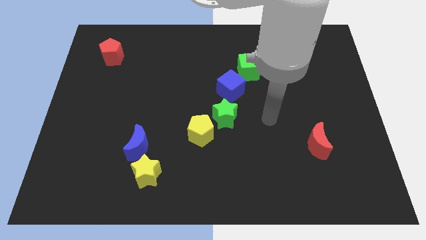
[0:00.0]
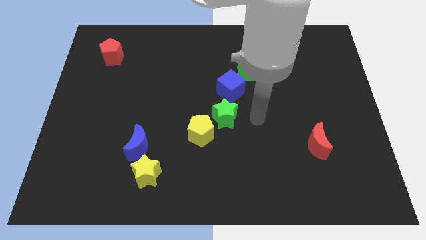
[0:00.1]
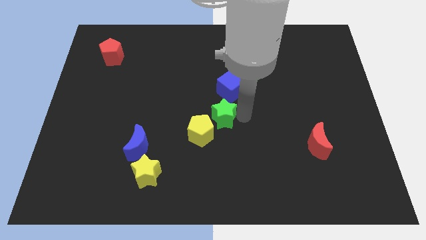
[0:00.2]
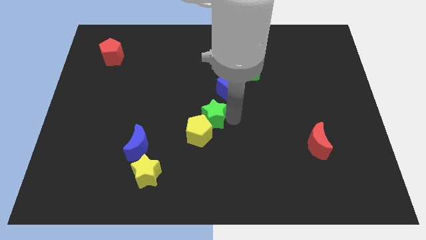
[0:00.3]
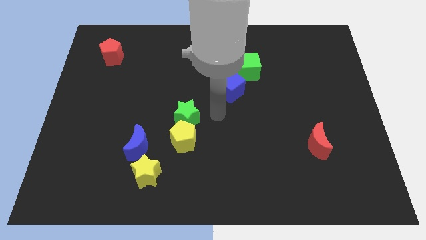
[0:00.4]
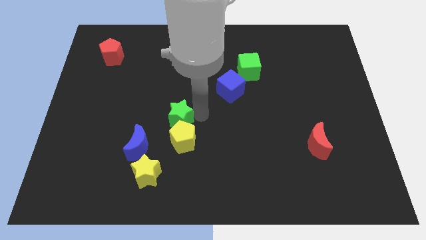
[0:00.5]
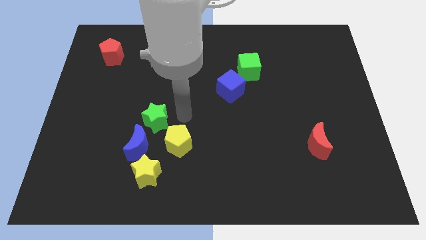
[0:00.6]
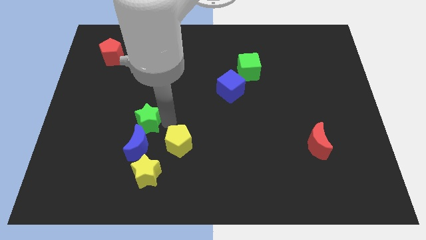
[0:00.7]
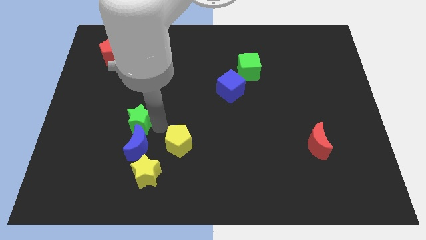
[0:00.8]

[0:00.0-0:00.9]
separate the yellow pentagon from the green star

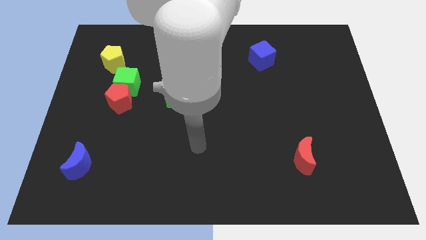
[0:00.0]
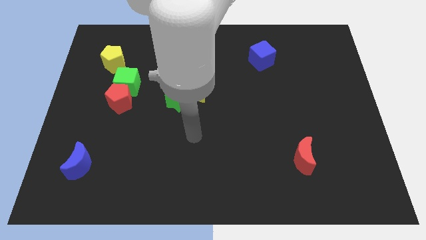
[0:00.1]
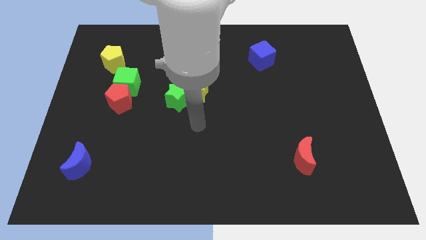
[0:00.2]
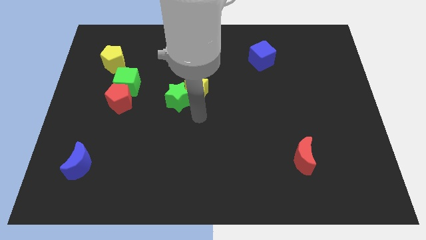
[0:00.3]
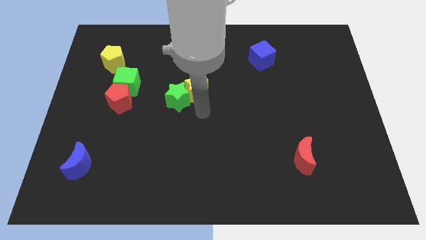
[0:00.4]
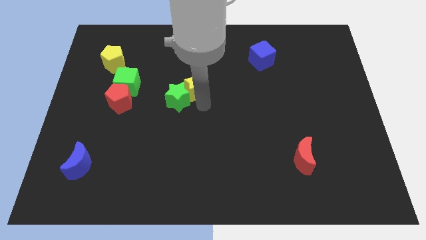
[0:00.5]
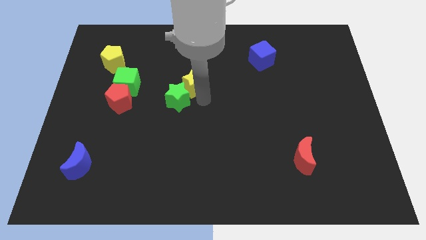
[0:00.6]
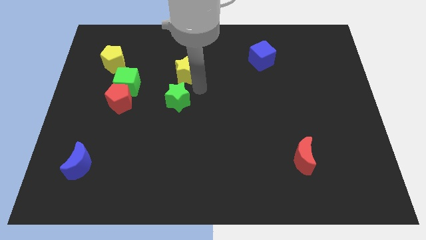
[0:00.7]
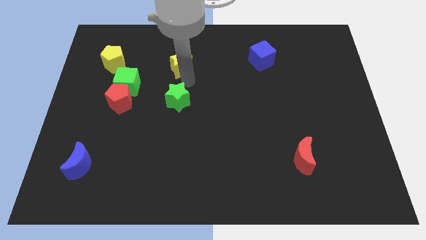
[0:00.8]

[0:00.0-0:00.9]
pull the green star apart from the yellow star

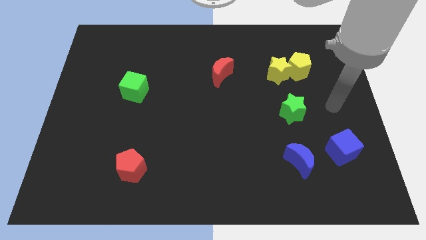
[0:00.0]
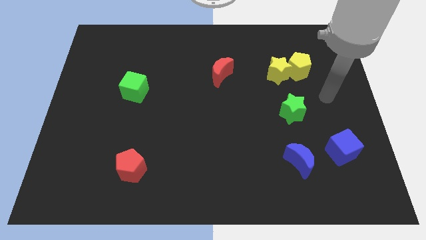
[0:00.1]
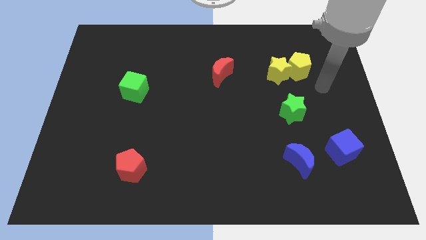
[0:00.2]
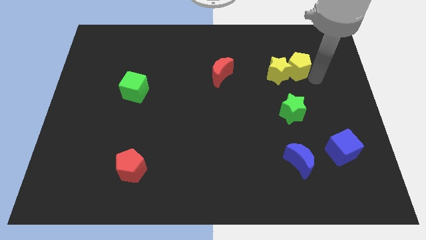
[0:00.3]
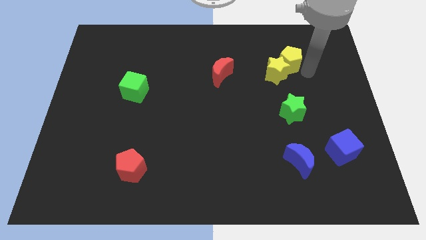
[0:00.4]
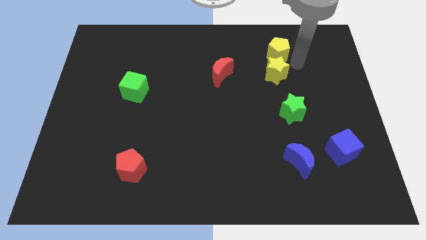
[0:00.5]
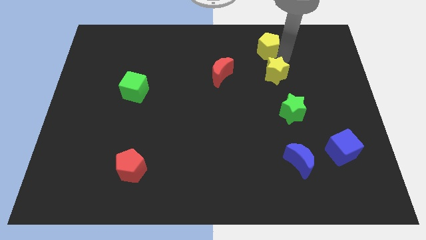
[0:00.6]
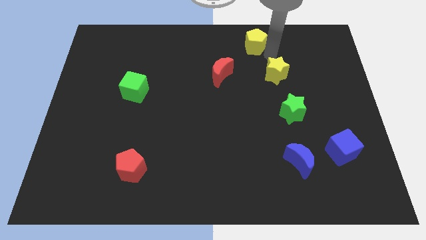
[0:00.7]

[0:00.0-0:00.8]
move the yellow star away from the yellow pentagon

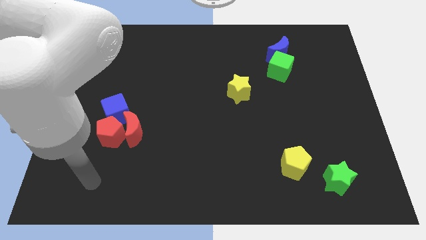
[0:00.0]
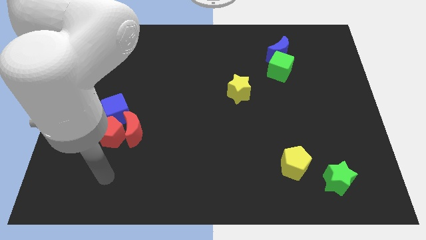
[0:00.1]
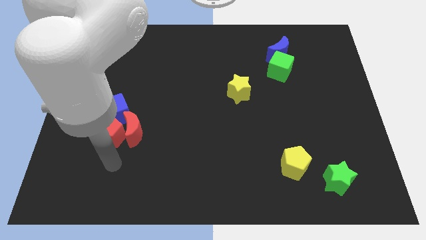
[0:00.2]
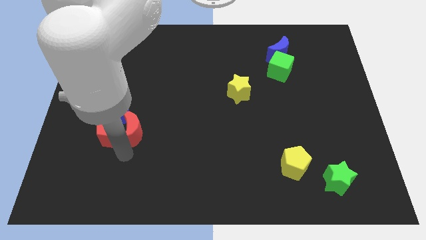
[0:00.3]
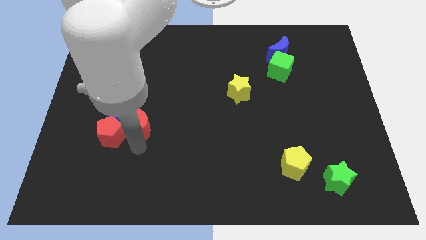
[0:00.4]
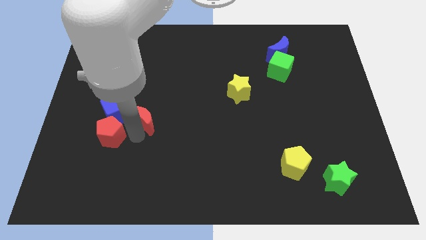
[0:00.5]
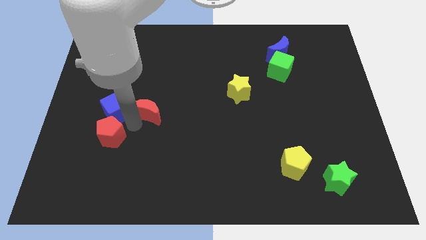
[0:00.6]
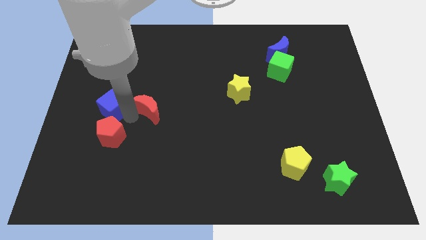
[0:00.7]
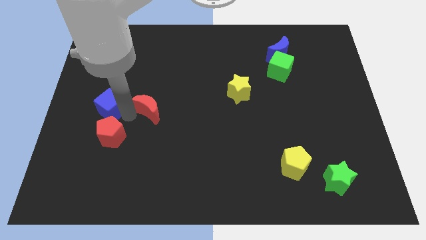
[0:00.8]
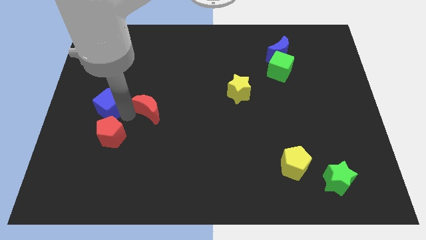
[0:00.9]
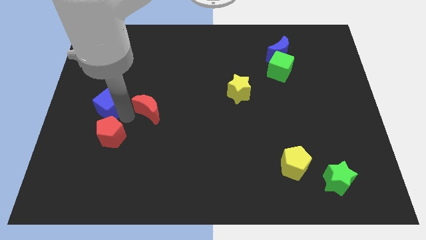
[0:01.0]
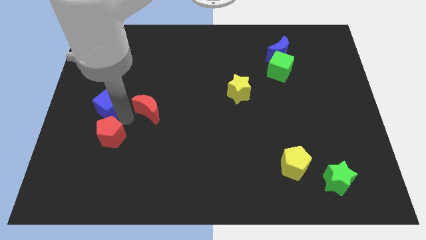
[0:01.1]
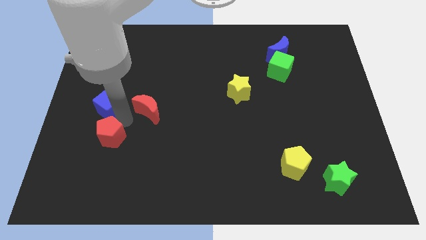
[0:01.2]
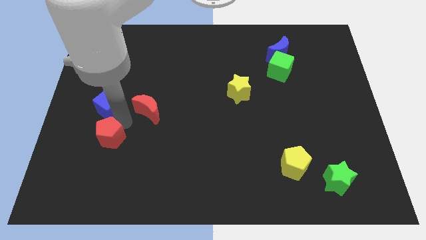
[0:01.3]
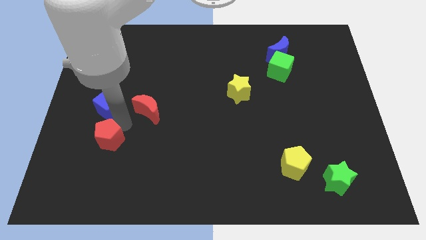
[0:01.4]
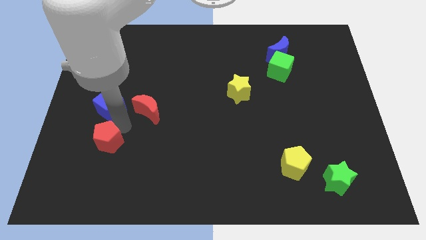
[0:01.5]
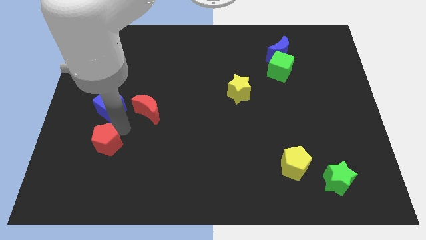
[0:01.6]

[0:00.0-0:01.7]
separate the red pentagon from the red moon and blue cube

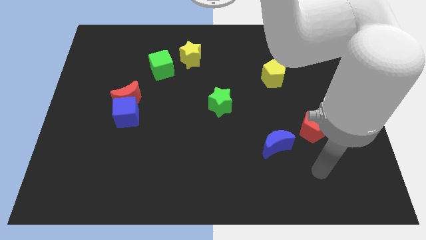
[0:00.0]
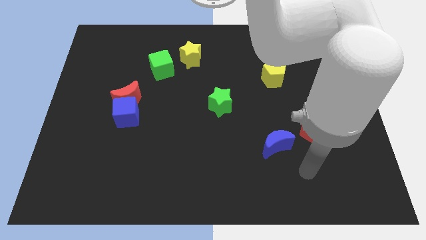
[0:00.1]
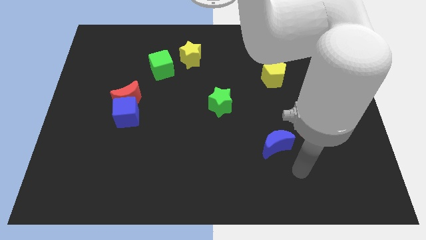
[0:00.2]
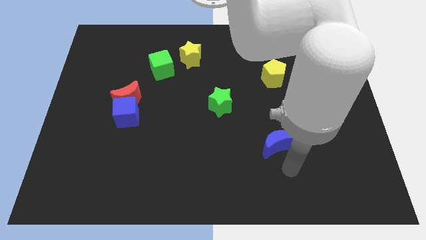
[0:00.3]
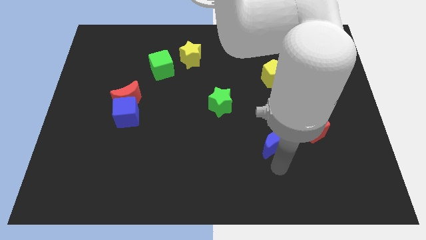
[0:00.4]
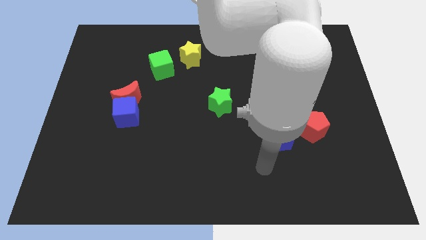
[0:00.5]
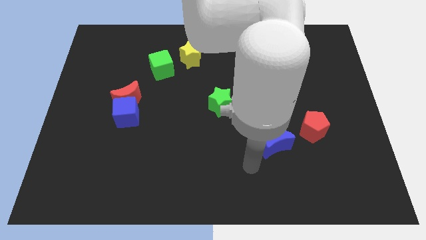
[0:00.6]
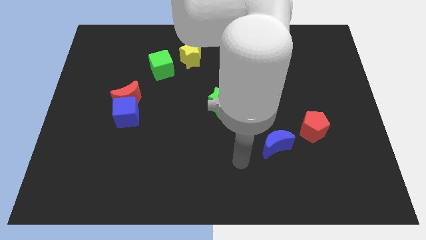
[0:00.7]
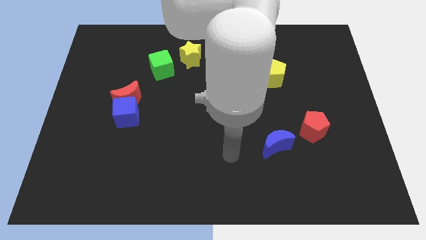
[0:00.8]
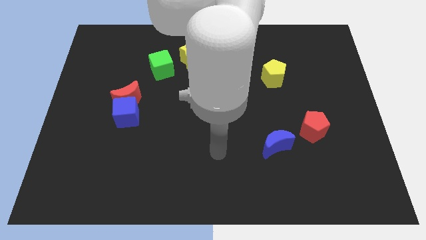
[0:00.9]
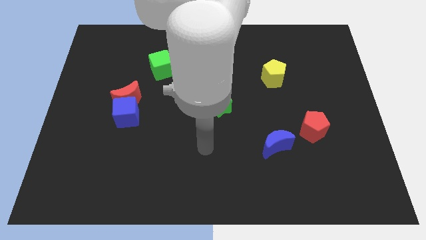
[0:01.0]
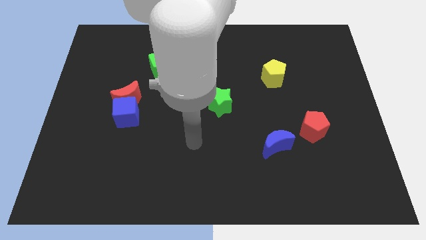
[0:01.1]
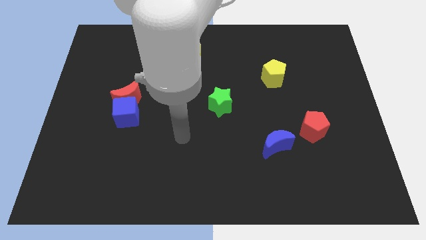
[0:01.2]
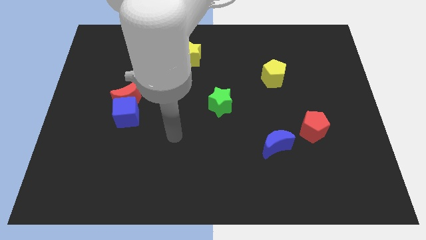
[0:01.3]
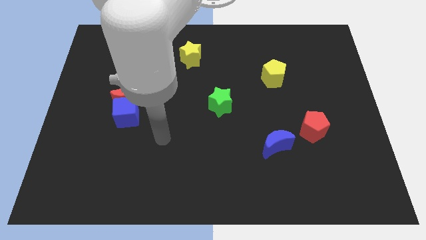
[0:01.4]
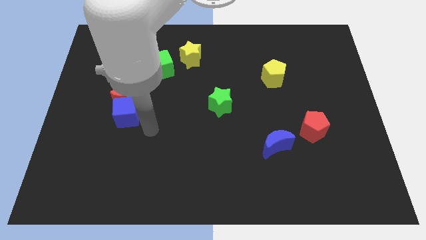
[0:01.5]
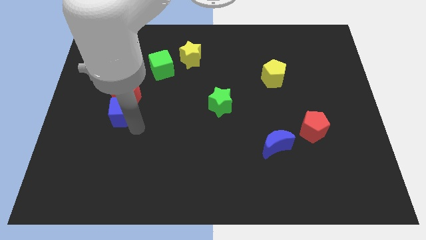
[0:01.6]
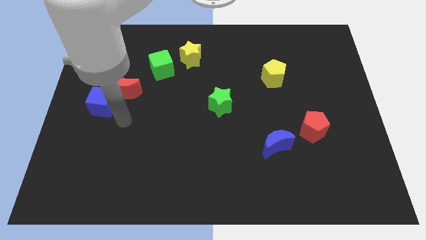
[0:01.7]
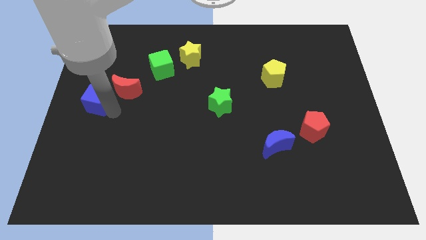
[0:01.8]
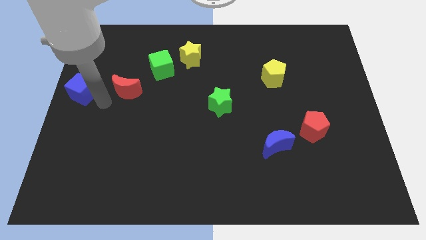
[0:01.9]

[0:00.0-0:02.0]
separate the red moon from the blue cube

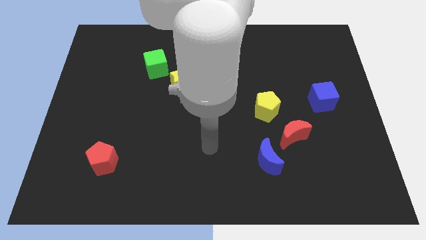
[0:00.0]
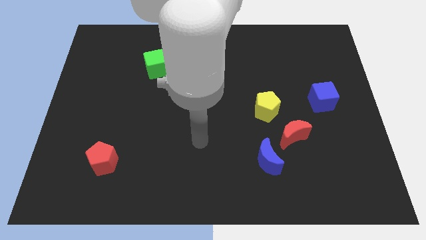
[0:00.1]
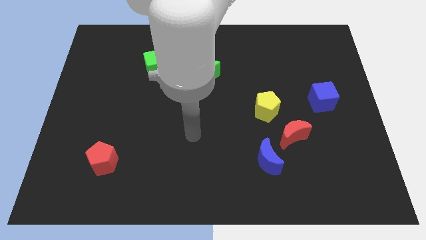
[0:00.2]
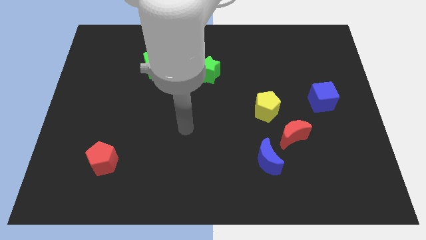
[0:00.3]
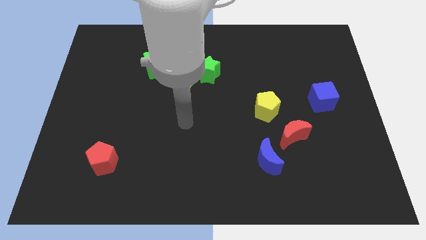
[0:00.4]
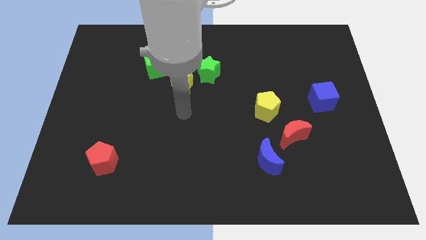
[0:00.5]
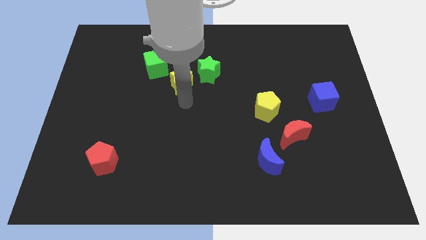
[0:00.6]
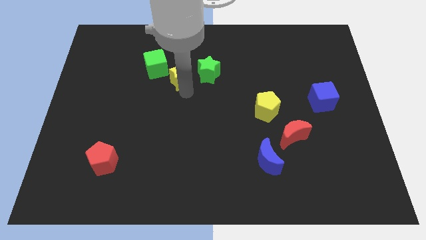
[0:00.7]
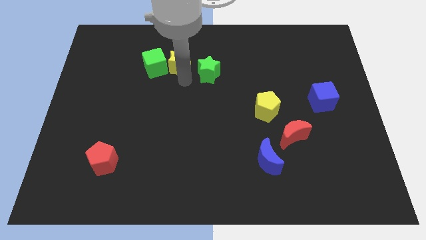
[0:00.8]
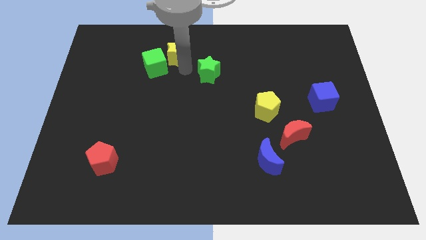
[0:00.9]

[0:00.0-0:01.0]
move the green star away from the yellow star

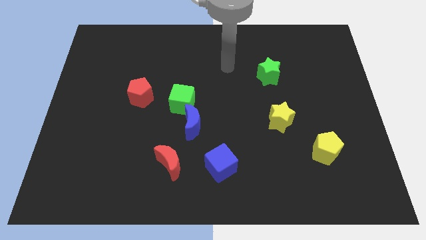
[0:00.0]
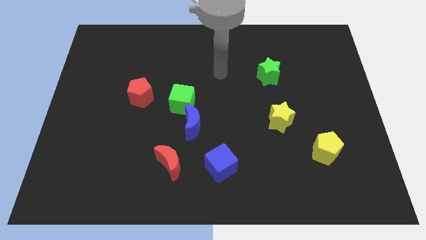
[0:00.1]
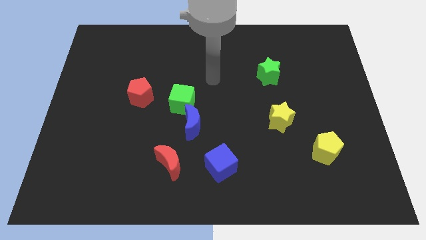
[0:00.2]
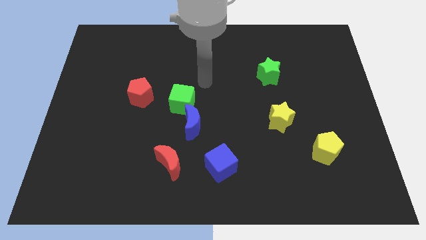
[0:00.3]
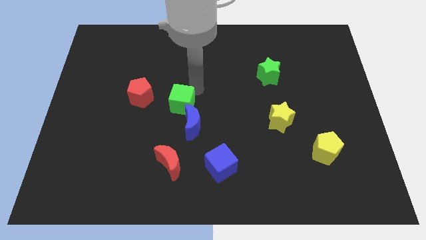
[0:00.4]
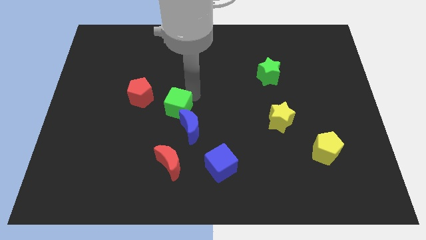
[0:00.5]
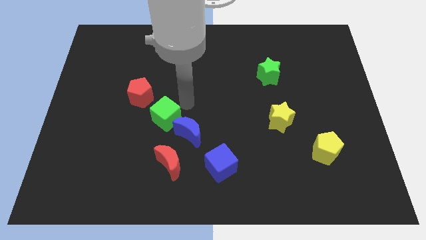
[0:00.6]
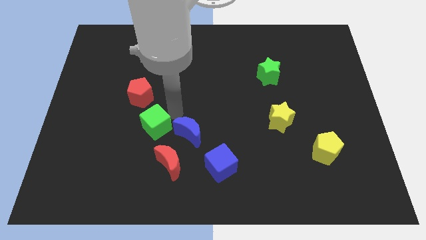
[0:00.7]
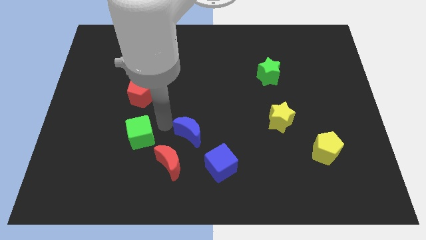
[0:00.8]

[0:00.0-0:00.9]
separate the blue moon from the green cube

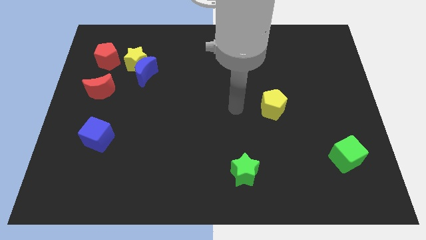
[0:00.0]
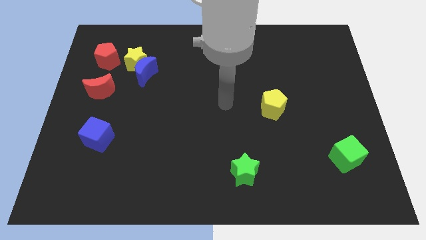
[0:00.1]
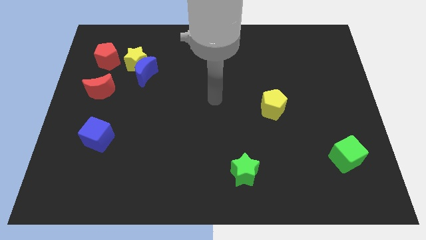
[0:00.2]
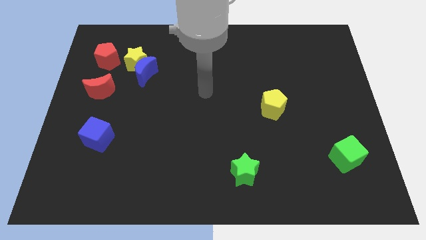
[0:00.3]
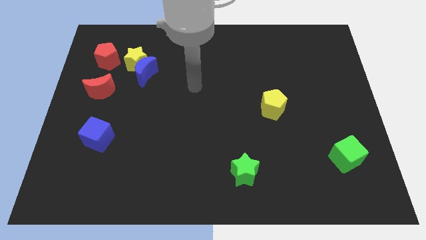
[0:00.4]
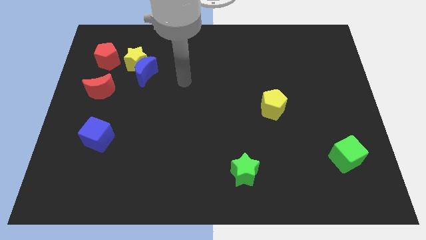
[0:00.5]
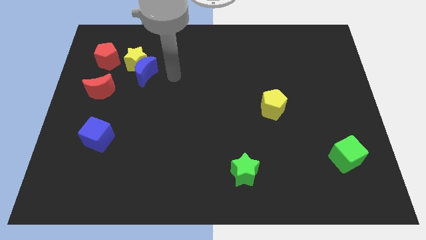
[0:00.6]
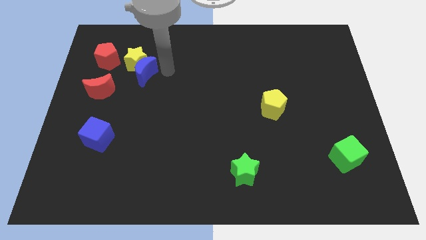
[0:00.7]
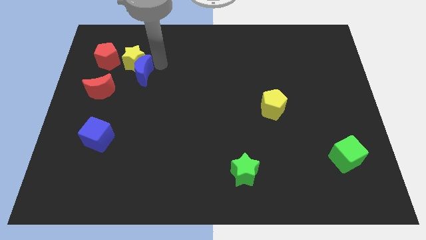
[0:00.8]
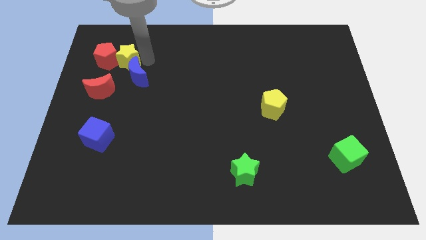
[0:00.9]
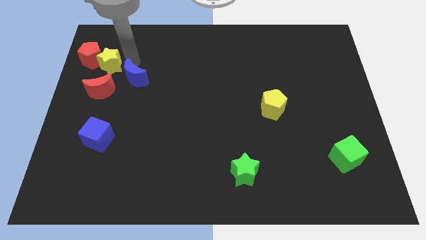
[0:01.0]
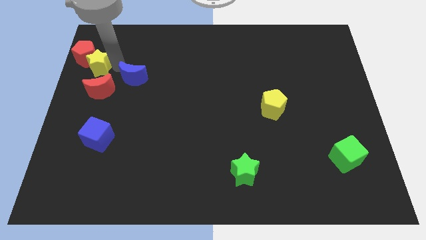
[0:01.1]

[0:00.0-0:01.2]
move the blue moon away from the yellow star
